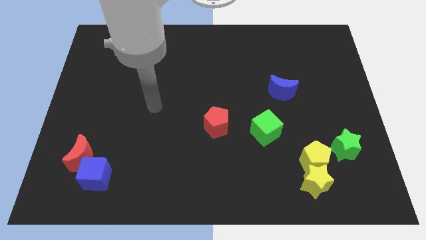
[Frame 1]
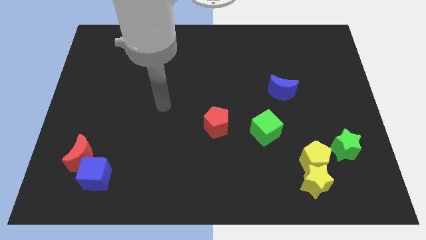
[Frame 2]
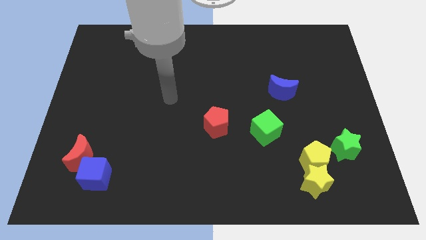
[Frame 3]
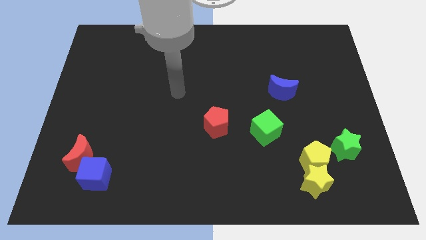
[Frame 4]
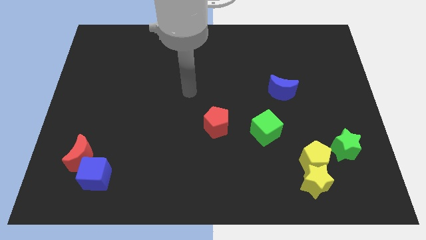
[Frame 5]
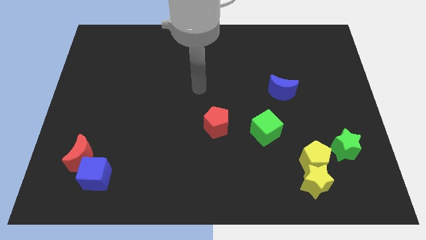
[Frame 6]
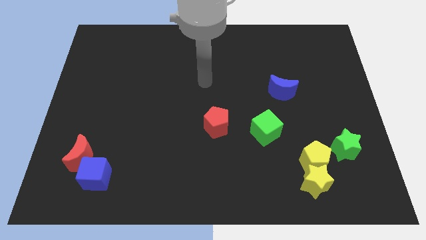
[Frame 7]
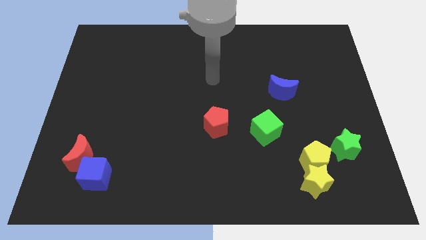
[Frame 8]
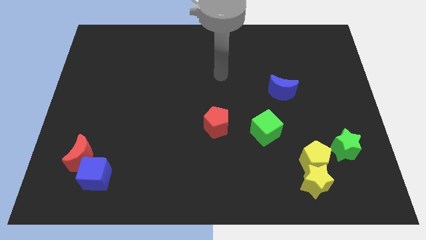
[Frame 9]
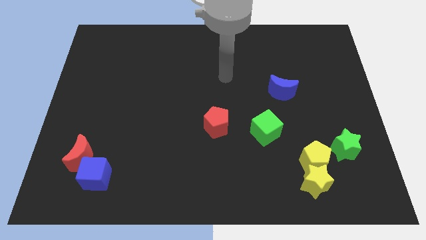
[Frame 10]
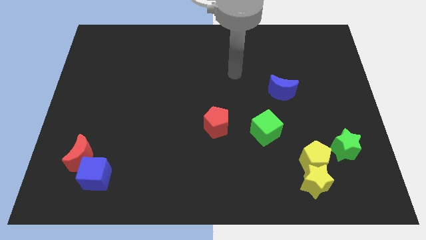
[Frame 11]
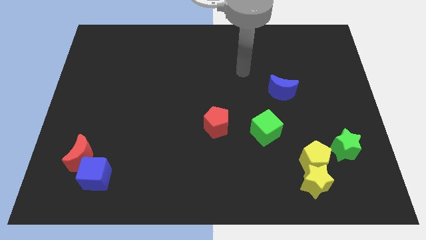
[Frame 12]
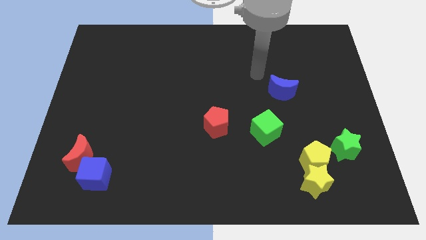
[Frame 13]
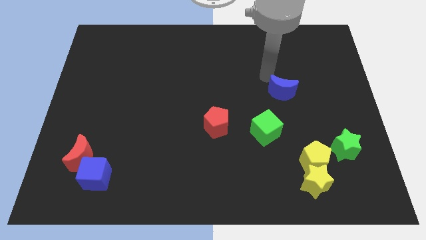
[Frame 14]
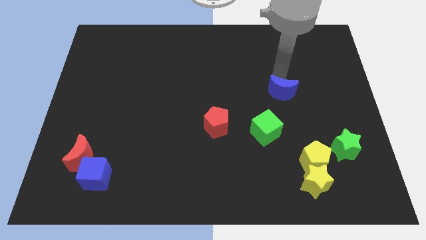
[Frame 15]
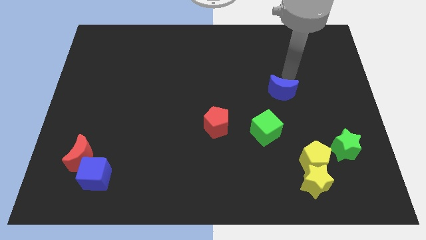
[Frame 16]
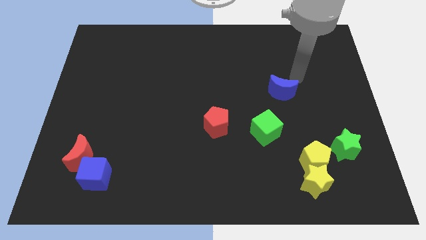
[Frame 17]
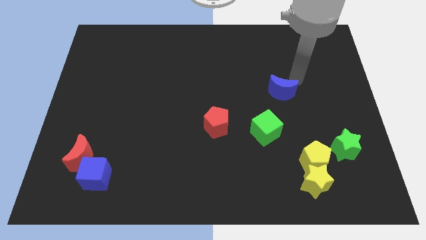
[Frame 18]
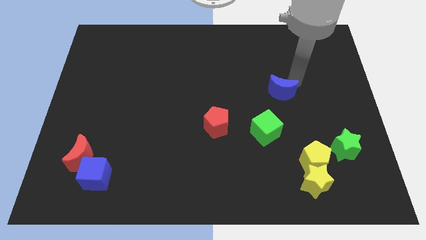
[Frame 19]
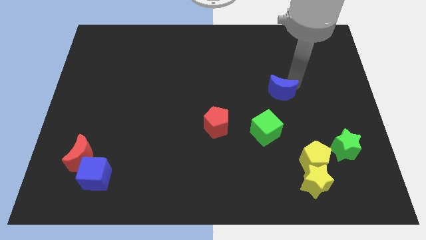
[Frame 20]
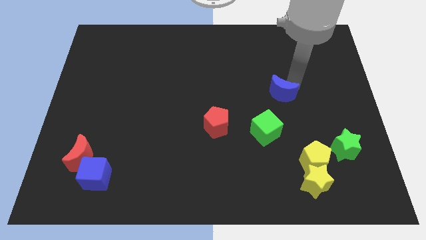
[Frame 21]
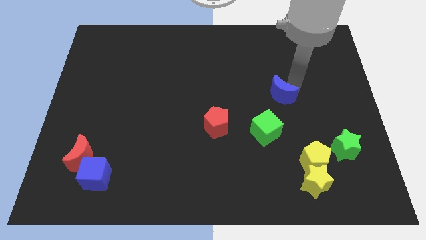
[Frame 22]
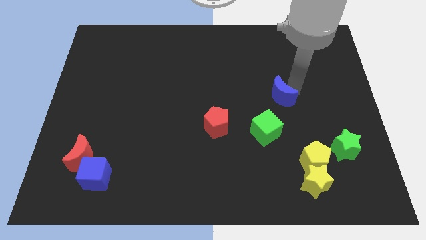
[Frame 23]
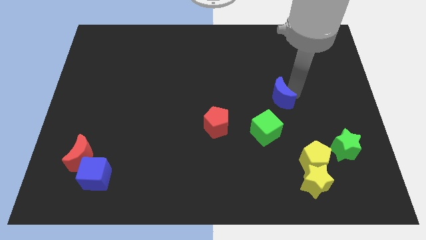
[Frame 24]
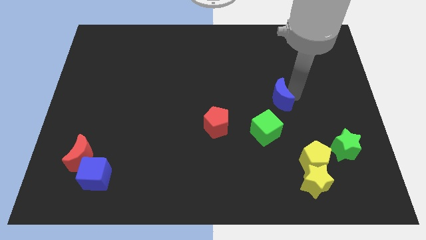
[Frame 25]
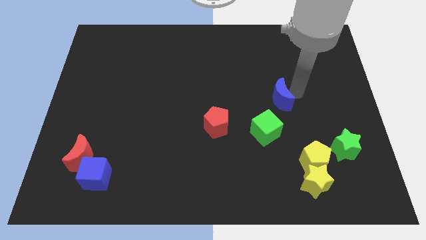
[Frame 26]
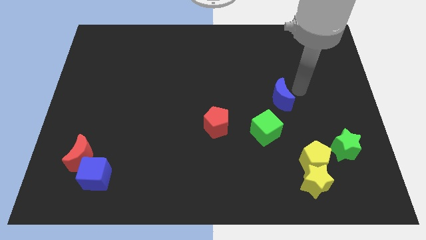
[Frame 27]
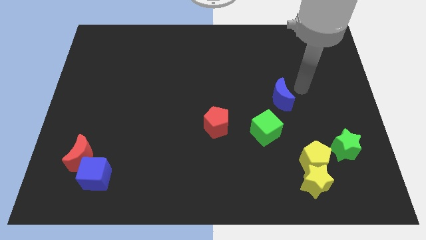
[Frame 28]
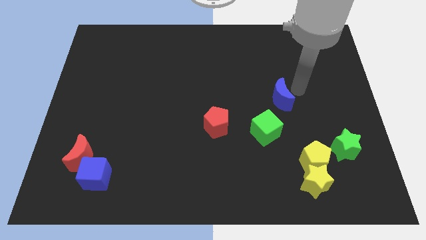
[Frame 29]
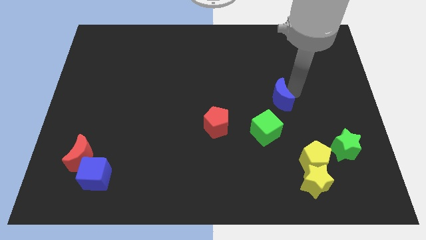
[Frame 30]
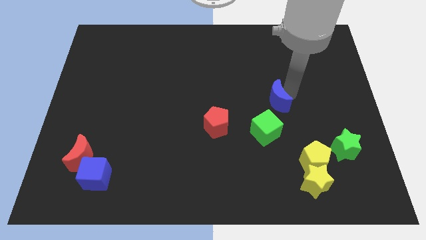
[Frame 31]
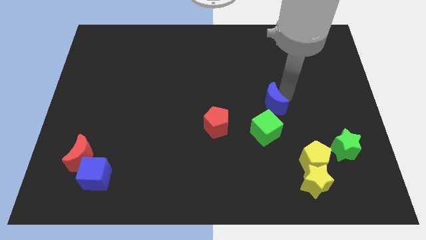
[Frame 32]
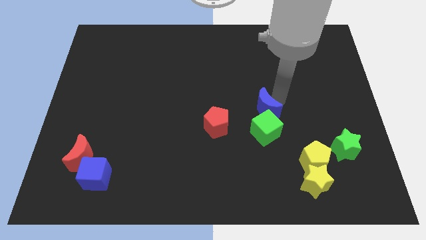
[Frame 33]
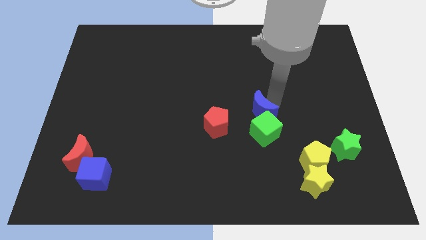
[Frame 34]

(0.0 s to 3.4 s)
move the blue moon a little downwards and then to the left

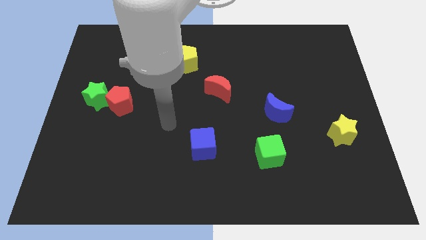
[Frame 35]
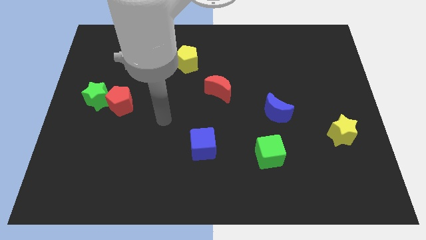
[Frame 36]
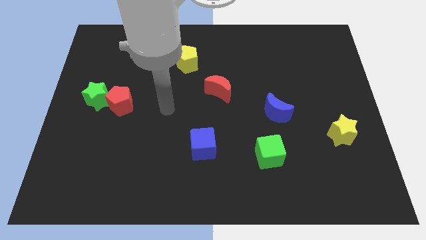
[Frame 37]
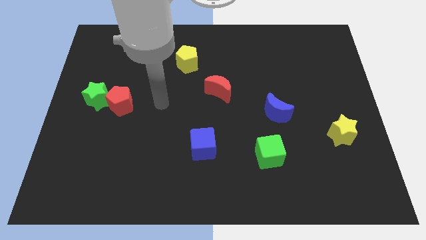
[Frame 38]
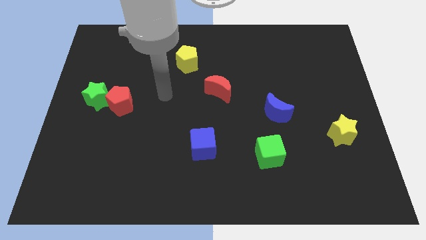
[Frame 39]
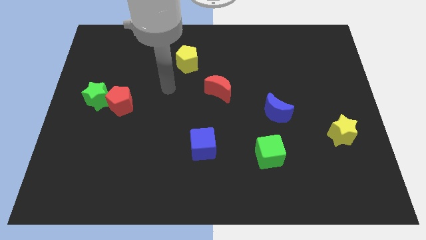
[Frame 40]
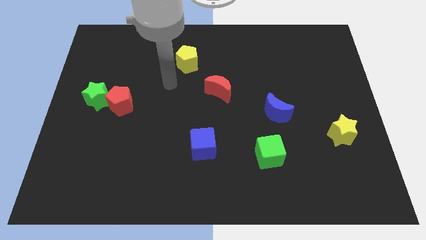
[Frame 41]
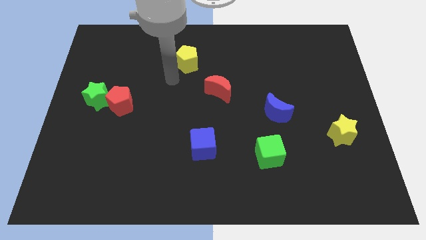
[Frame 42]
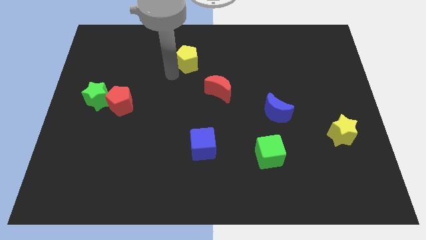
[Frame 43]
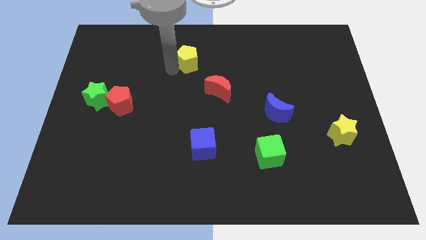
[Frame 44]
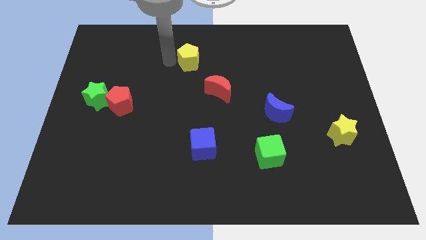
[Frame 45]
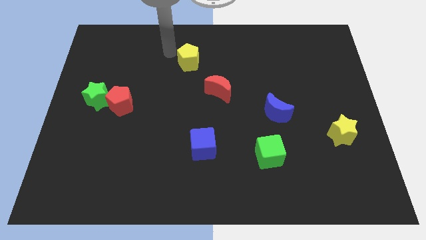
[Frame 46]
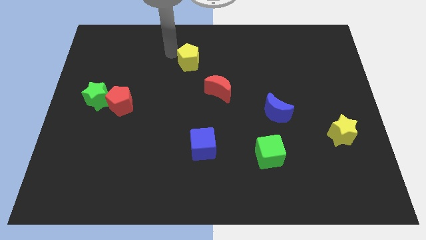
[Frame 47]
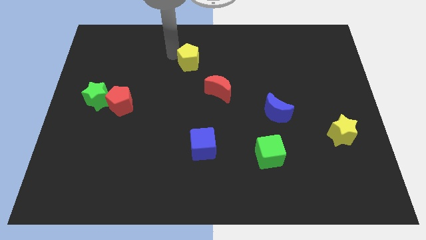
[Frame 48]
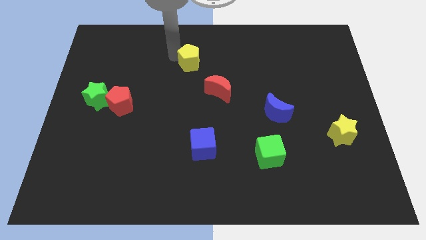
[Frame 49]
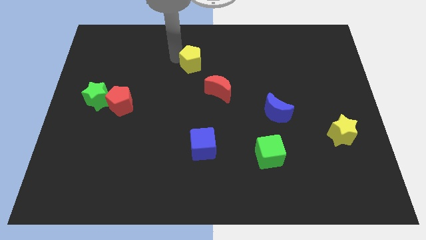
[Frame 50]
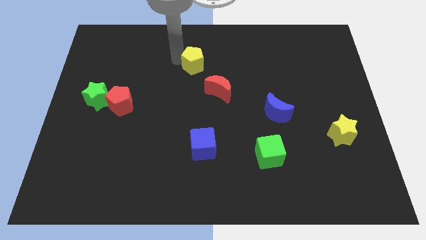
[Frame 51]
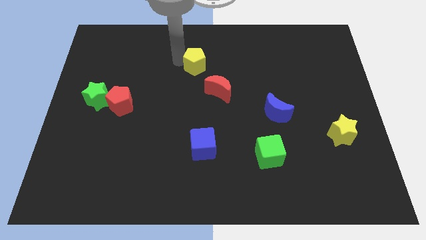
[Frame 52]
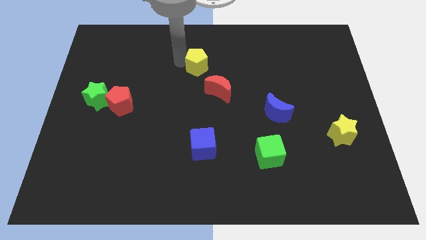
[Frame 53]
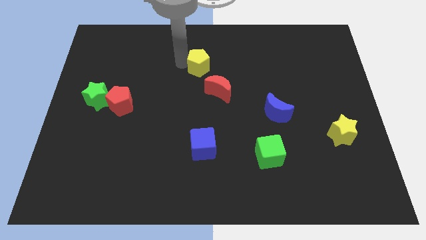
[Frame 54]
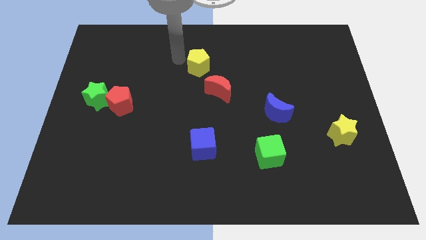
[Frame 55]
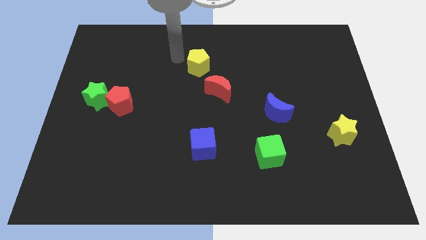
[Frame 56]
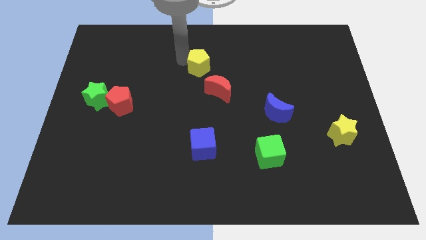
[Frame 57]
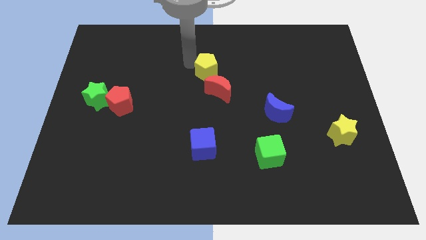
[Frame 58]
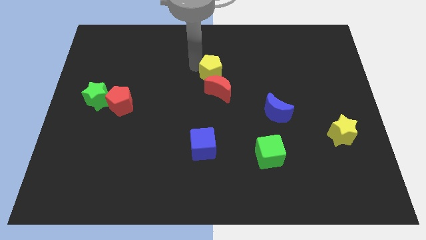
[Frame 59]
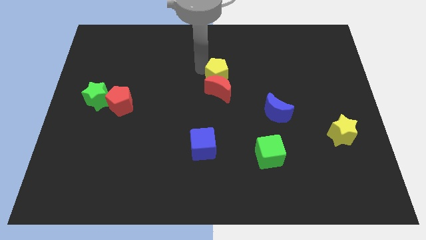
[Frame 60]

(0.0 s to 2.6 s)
push the yellow pentagon downwards and right slightly

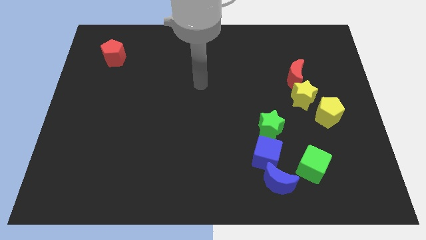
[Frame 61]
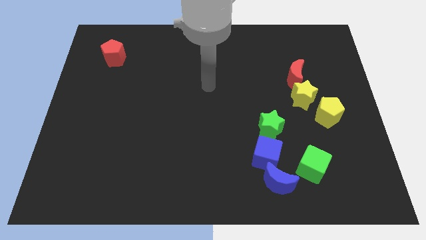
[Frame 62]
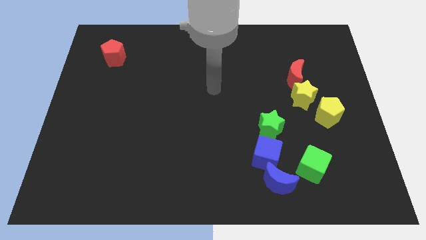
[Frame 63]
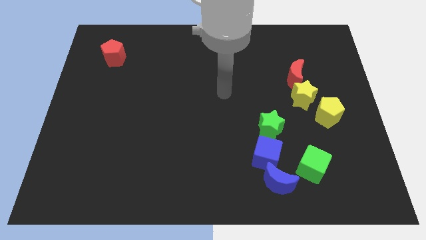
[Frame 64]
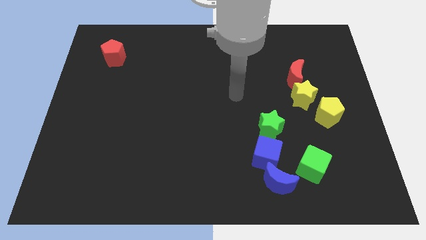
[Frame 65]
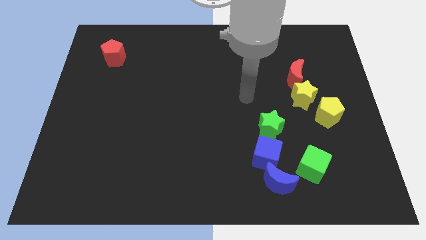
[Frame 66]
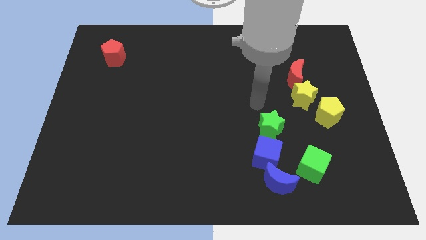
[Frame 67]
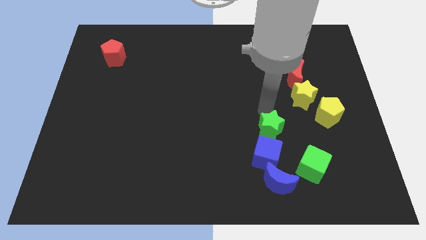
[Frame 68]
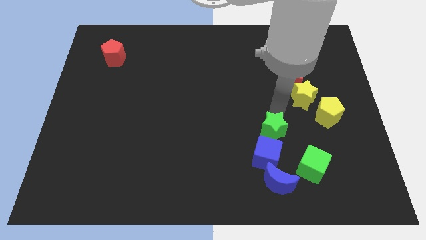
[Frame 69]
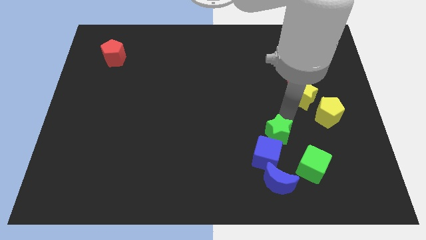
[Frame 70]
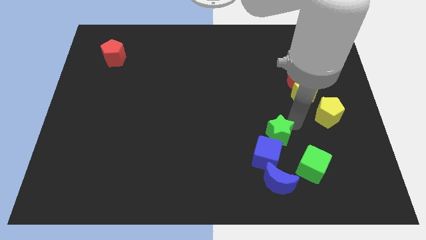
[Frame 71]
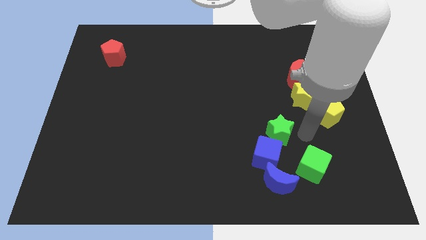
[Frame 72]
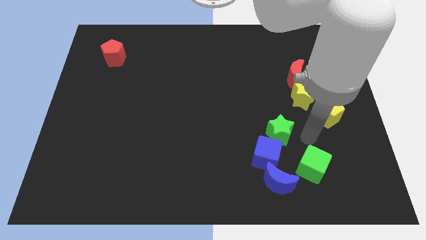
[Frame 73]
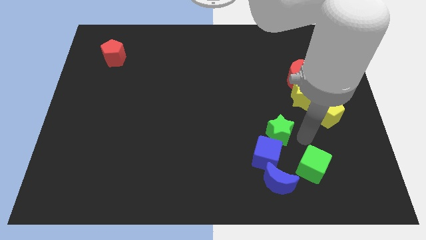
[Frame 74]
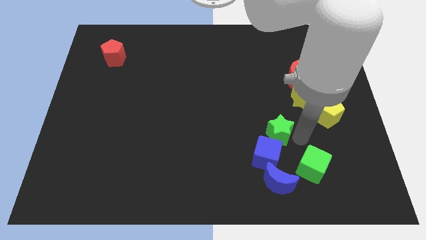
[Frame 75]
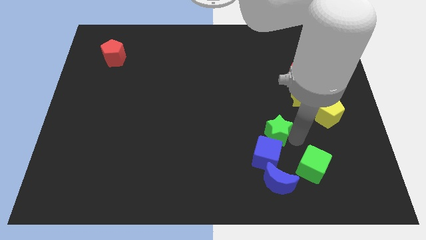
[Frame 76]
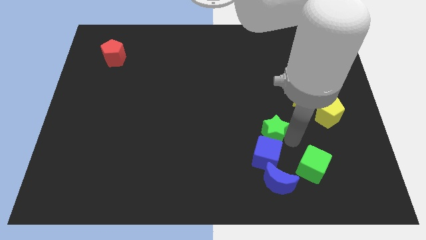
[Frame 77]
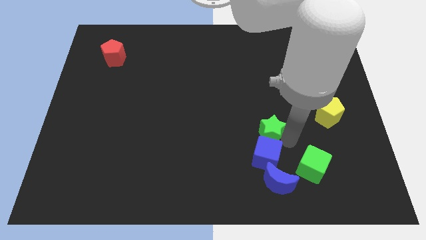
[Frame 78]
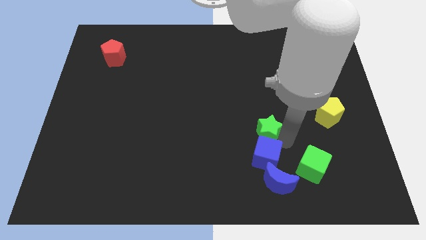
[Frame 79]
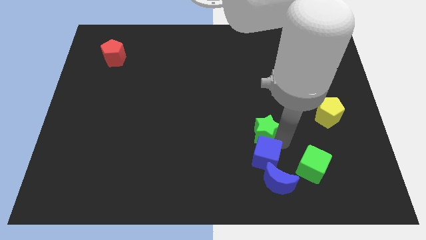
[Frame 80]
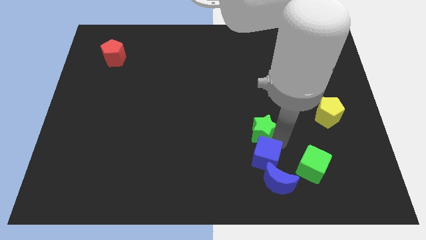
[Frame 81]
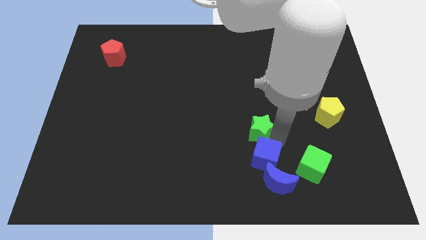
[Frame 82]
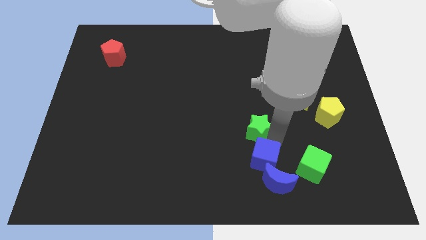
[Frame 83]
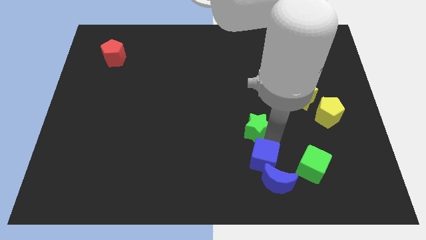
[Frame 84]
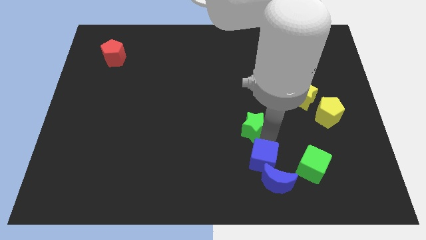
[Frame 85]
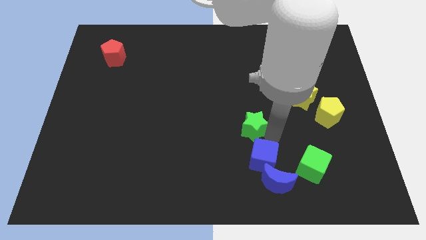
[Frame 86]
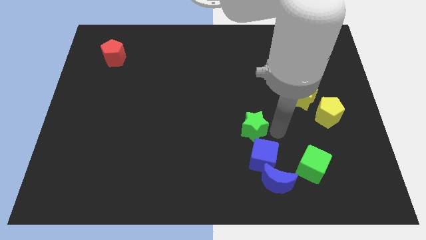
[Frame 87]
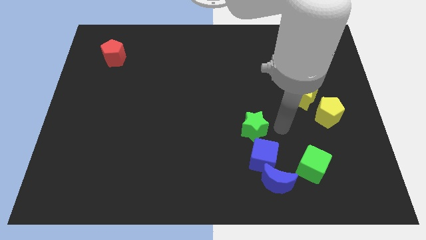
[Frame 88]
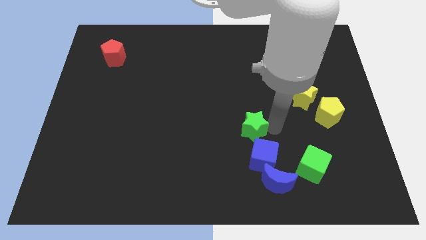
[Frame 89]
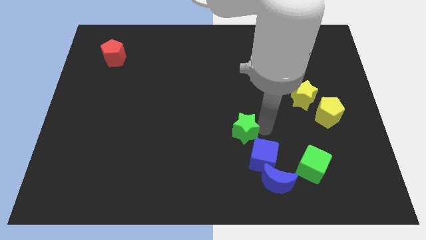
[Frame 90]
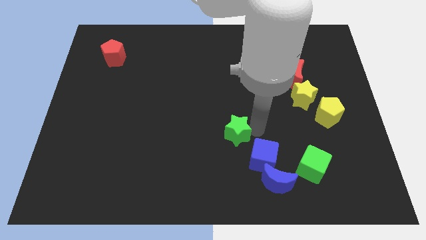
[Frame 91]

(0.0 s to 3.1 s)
push the green star to the left a little
